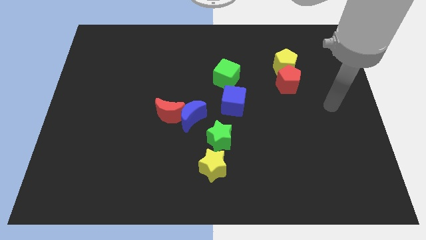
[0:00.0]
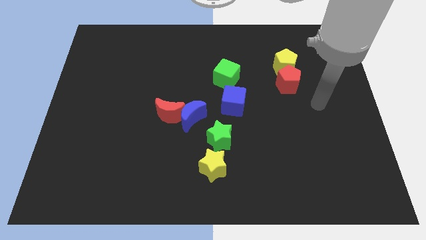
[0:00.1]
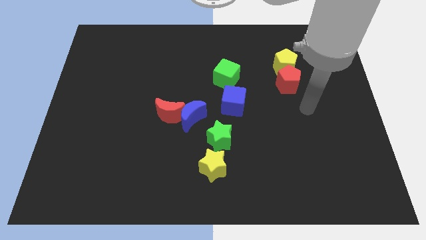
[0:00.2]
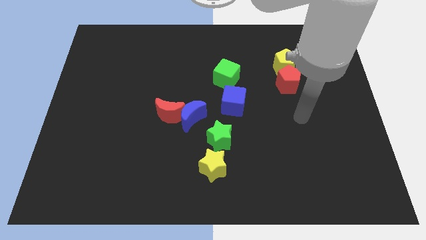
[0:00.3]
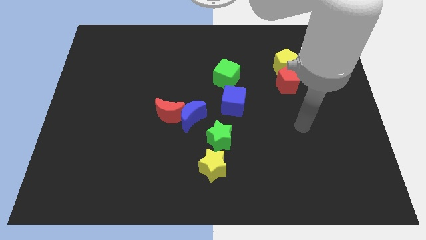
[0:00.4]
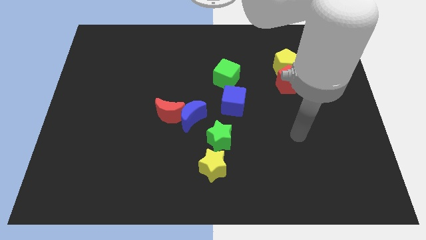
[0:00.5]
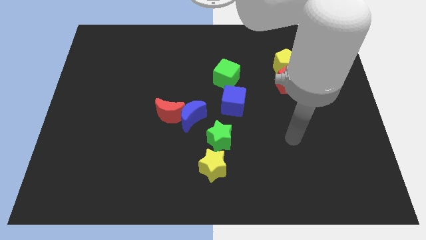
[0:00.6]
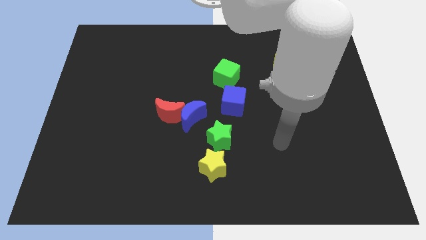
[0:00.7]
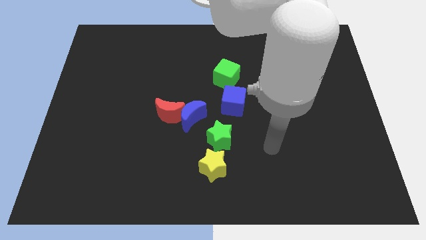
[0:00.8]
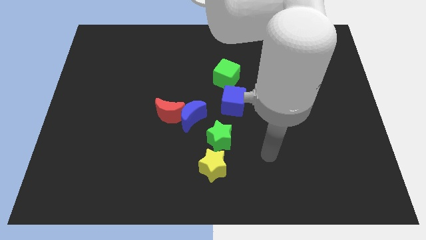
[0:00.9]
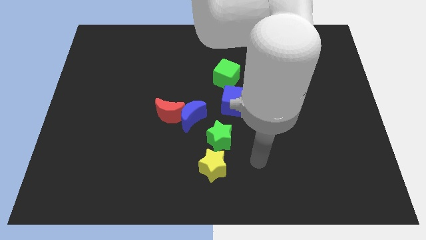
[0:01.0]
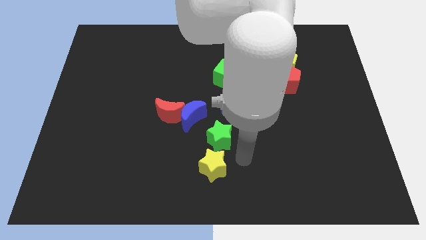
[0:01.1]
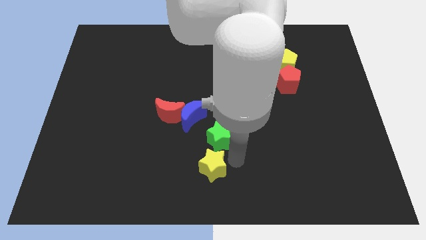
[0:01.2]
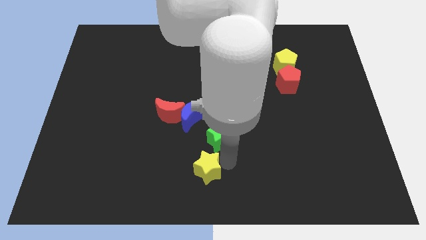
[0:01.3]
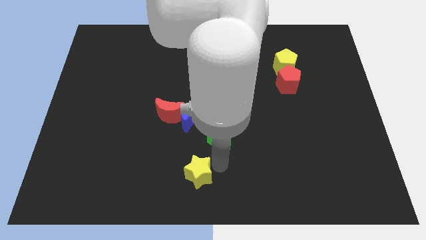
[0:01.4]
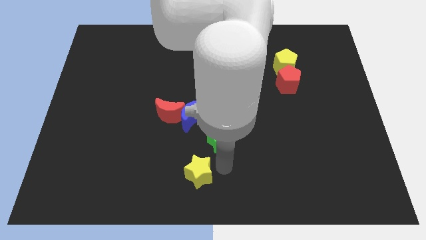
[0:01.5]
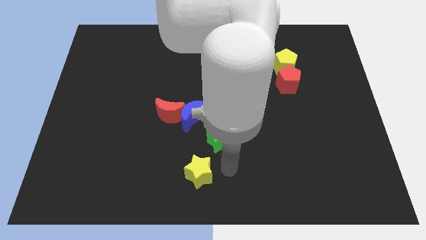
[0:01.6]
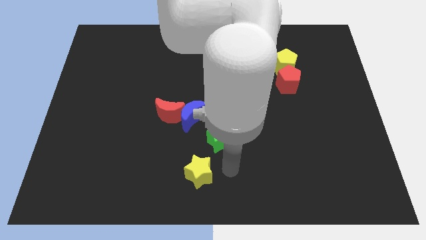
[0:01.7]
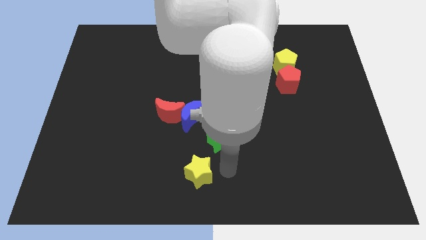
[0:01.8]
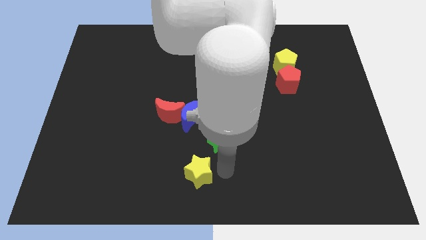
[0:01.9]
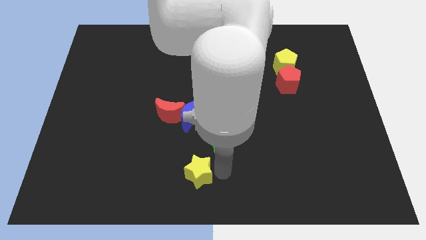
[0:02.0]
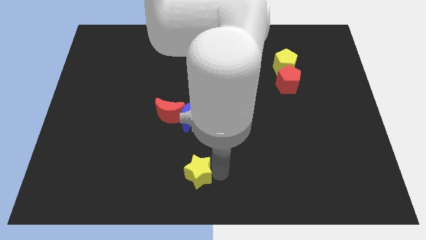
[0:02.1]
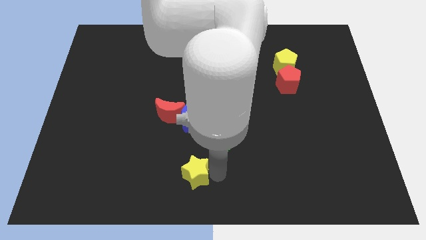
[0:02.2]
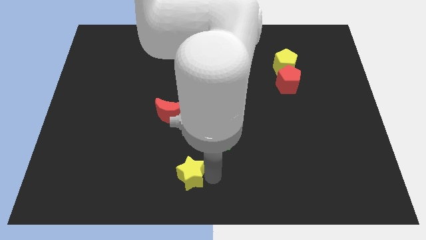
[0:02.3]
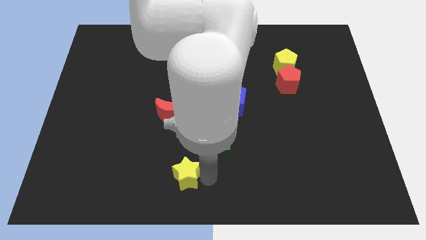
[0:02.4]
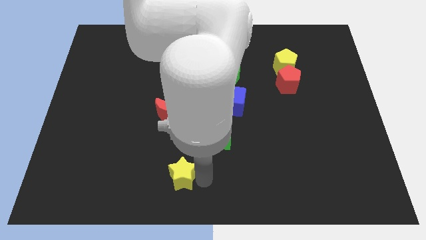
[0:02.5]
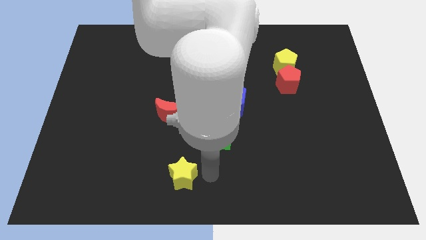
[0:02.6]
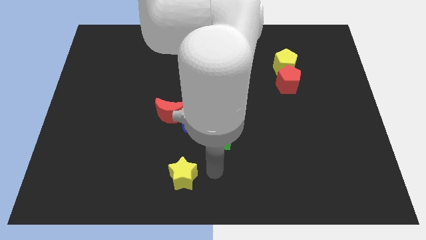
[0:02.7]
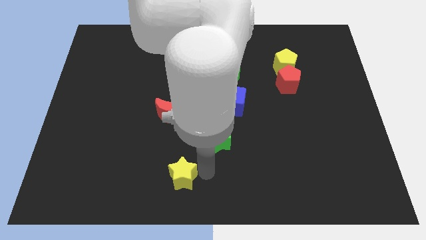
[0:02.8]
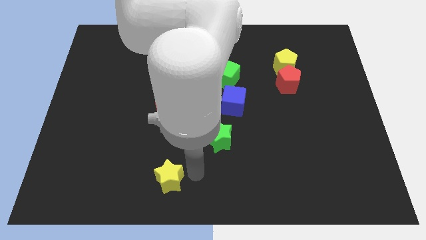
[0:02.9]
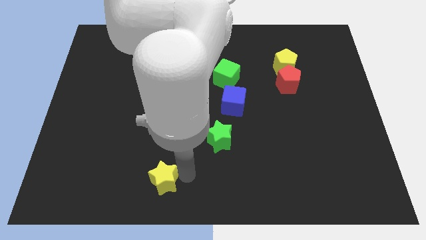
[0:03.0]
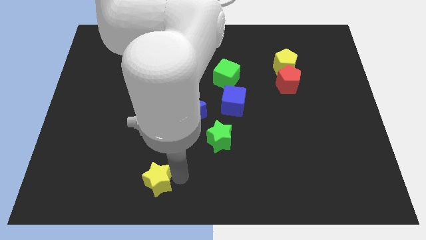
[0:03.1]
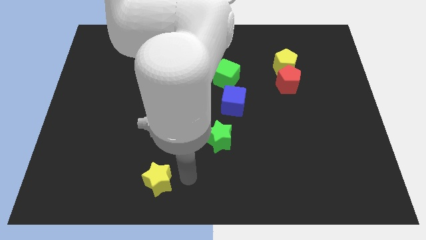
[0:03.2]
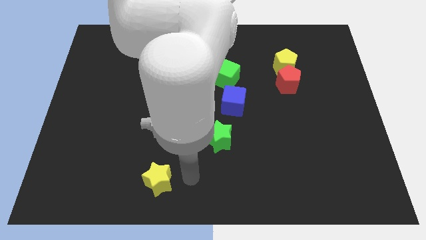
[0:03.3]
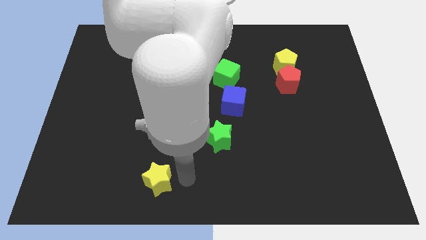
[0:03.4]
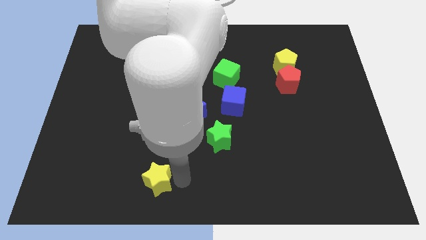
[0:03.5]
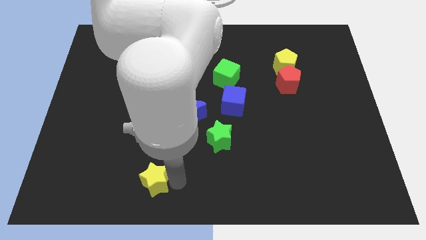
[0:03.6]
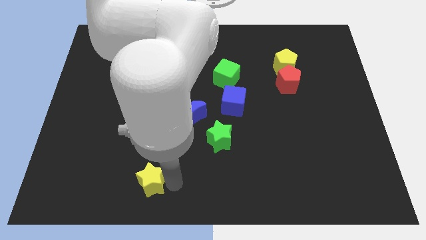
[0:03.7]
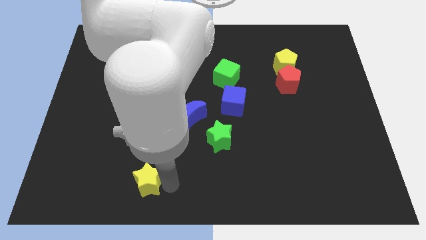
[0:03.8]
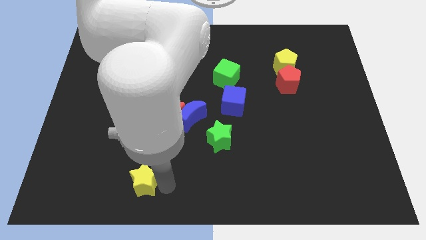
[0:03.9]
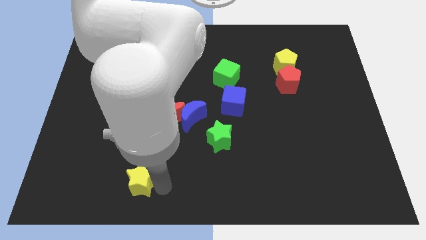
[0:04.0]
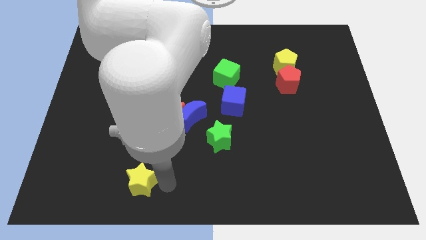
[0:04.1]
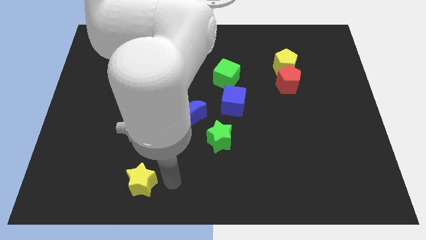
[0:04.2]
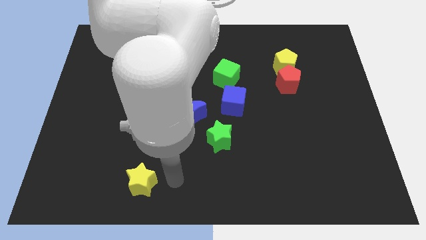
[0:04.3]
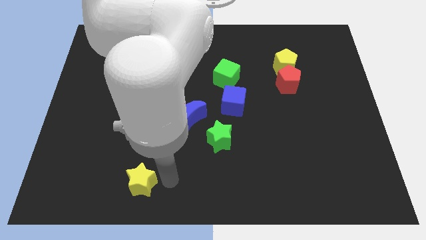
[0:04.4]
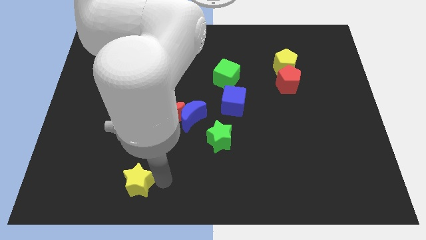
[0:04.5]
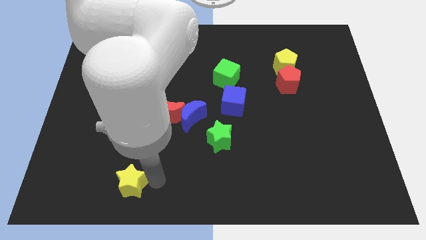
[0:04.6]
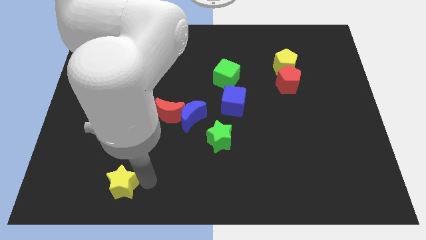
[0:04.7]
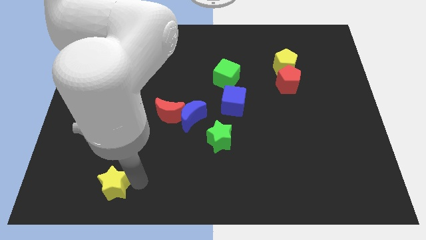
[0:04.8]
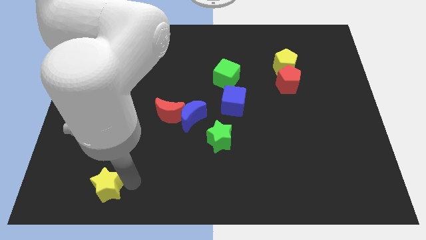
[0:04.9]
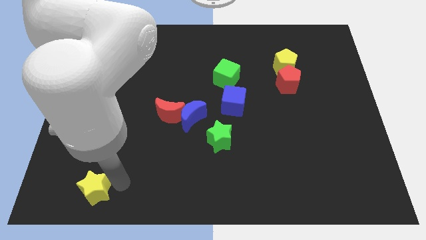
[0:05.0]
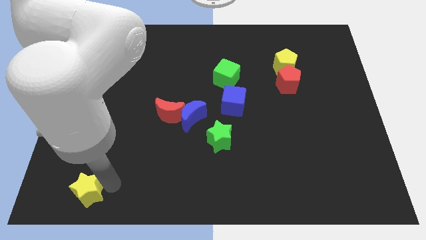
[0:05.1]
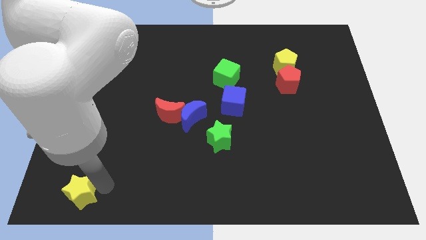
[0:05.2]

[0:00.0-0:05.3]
move the yellow star to the bottom left of the board

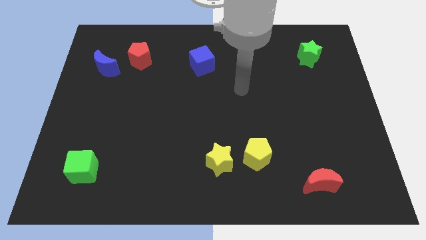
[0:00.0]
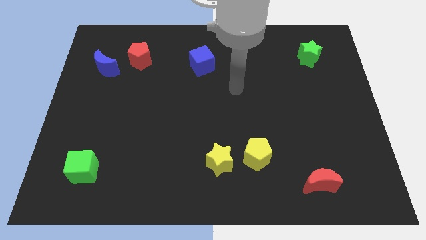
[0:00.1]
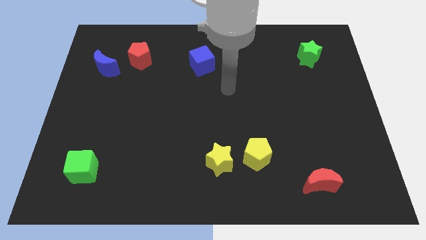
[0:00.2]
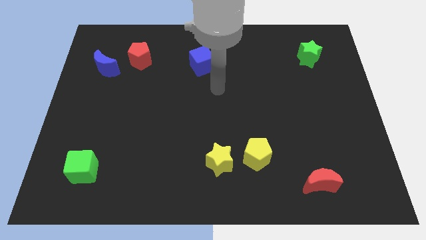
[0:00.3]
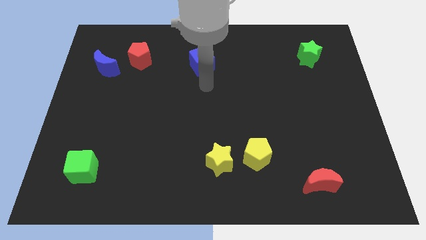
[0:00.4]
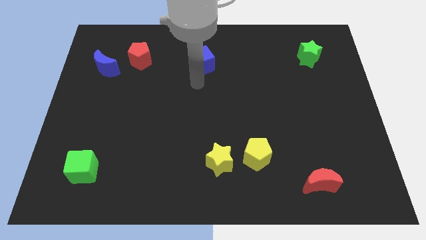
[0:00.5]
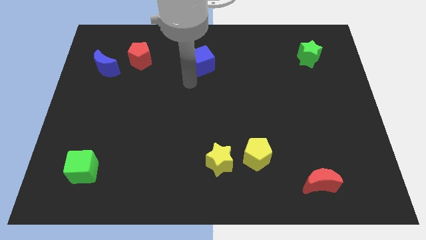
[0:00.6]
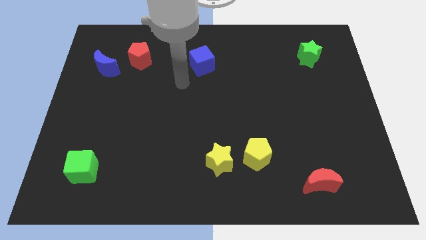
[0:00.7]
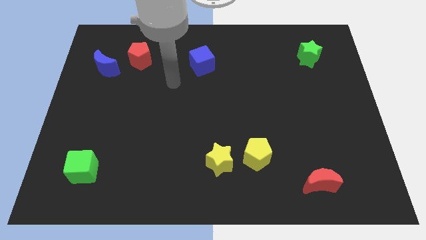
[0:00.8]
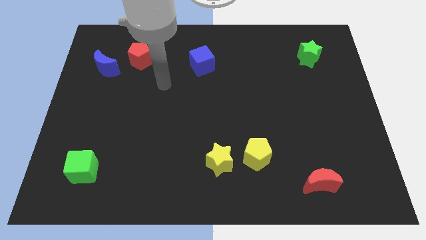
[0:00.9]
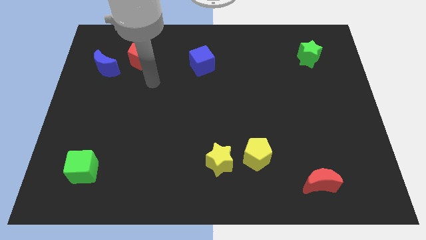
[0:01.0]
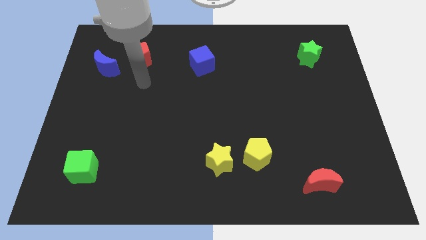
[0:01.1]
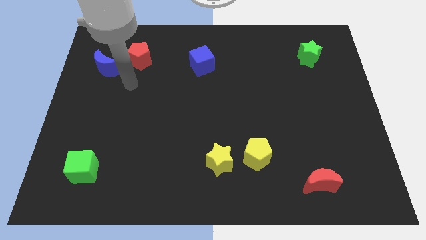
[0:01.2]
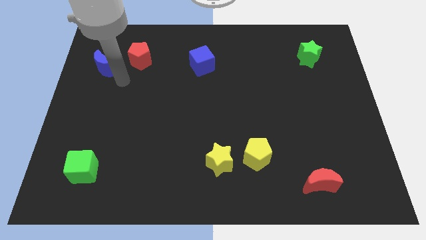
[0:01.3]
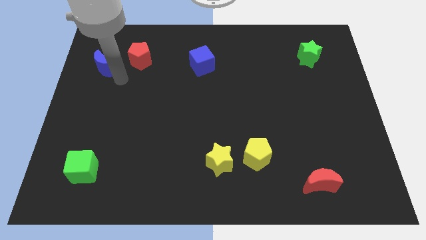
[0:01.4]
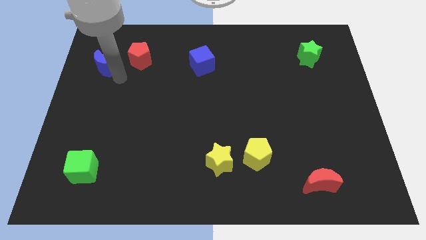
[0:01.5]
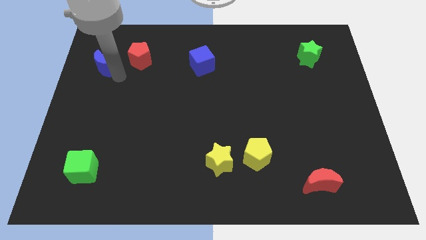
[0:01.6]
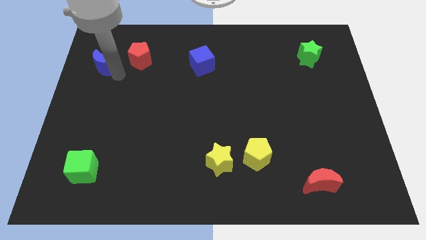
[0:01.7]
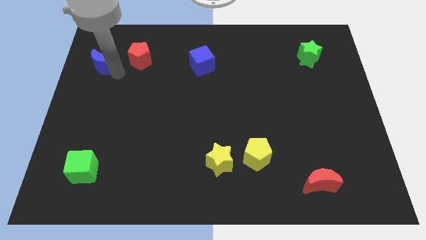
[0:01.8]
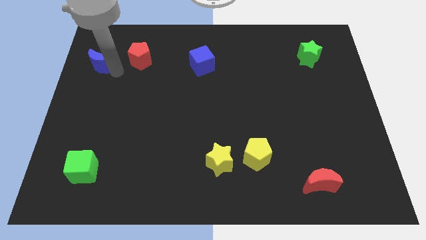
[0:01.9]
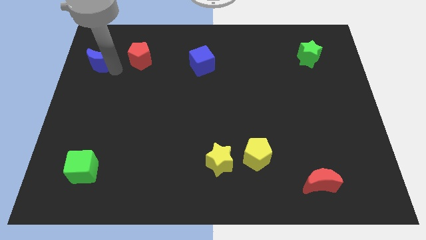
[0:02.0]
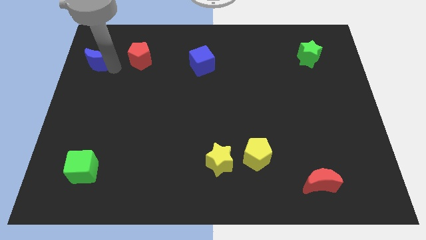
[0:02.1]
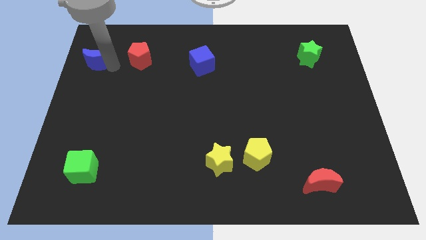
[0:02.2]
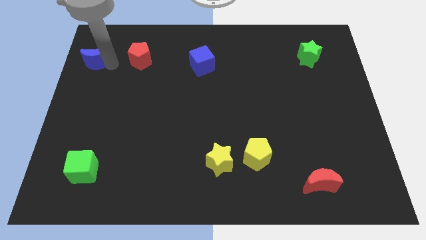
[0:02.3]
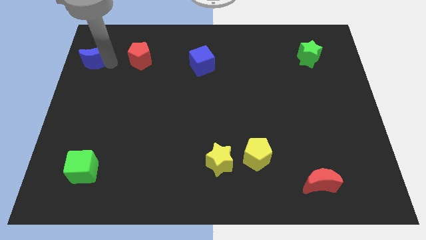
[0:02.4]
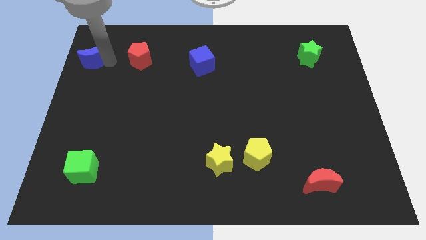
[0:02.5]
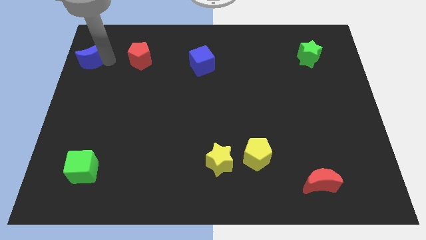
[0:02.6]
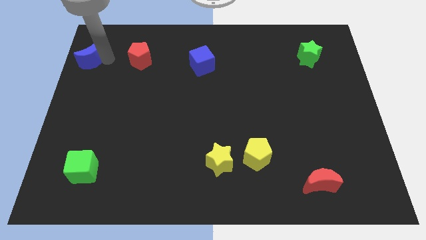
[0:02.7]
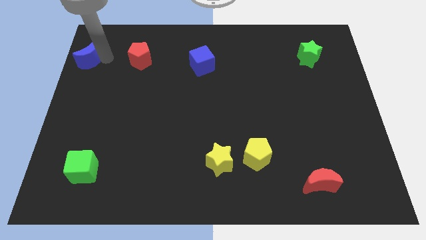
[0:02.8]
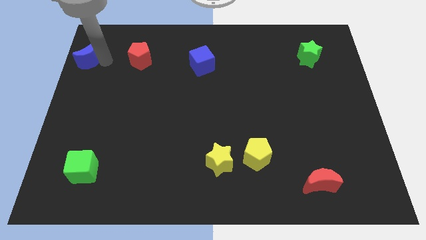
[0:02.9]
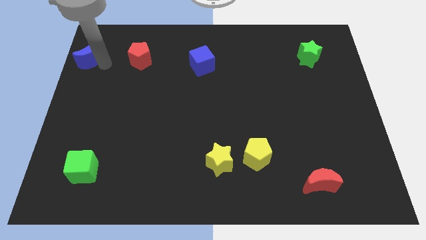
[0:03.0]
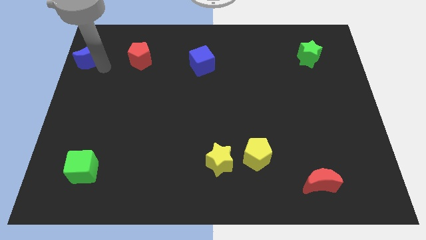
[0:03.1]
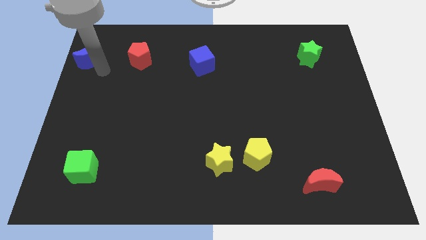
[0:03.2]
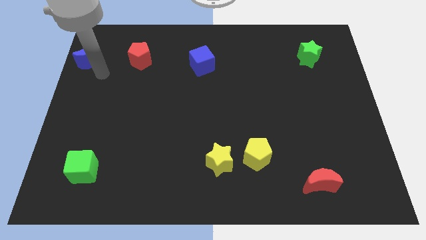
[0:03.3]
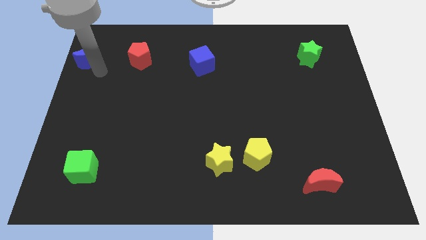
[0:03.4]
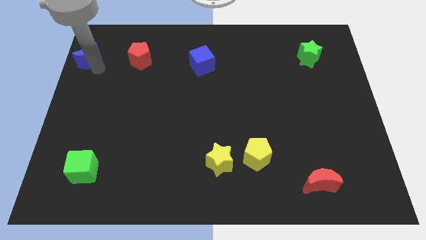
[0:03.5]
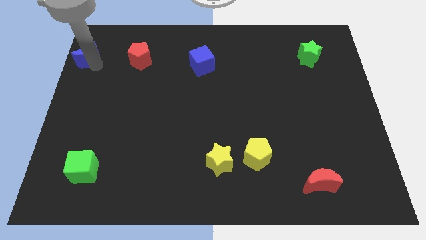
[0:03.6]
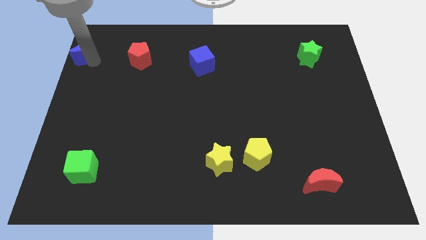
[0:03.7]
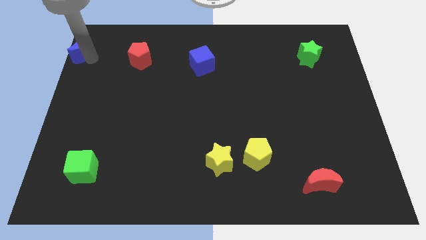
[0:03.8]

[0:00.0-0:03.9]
push the blue moon to the top left
